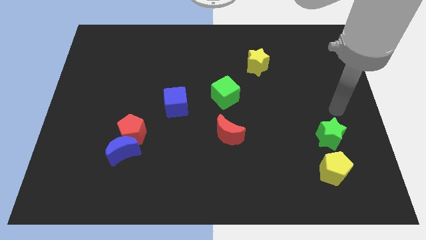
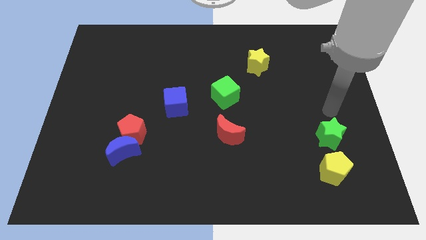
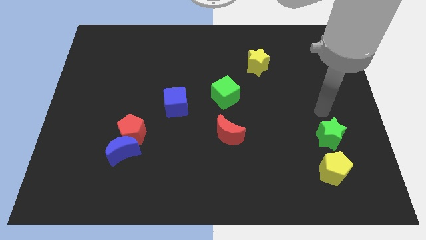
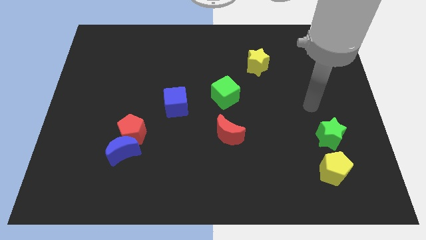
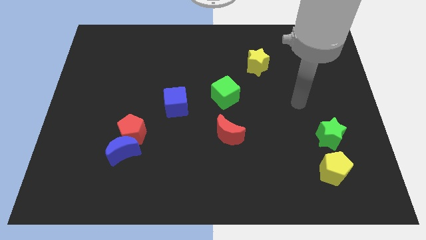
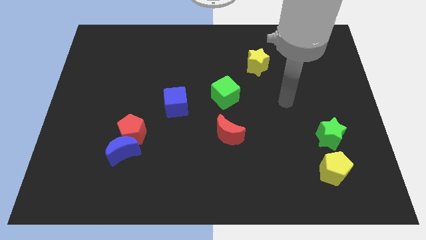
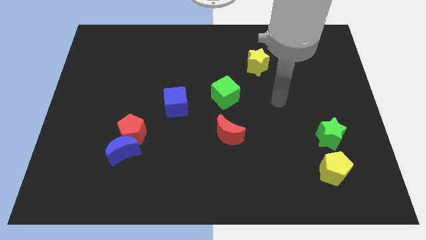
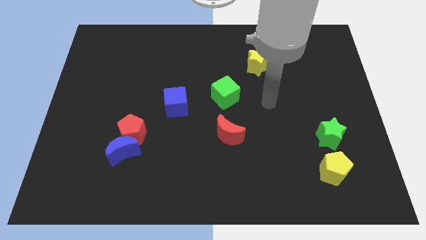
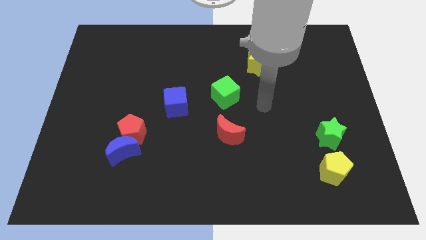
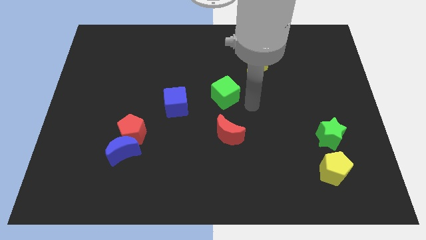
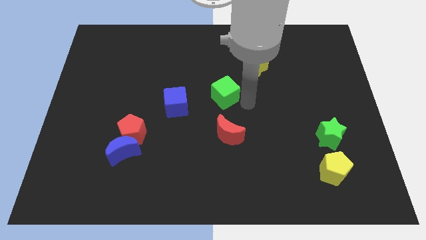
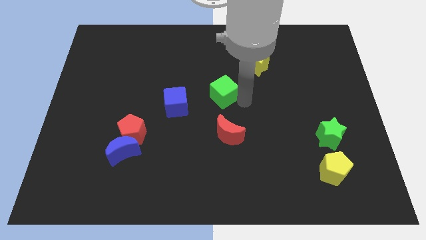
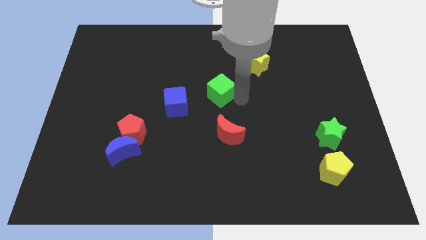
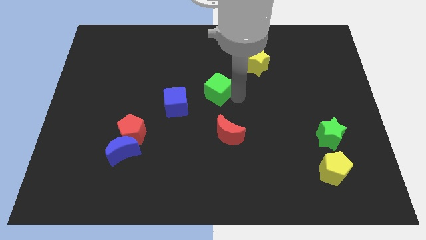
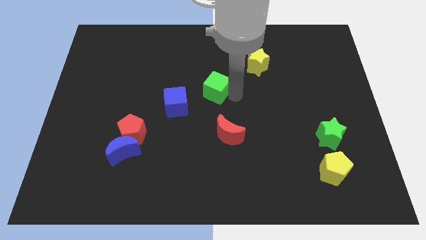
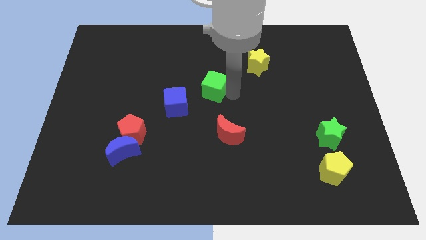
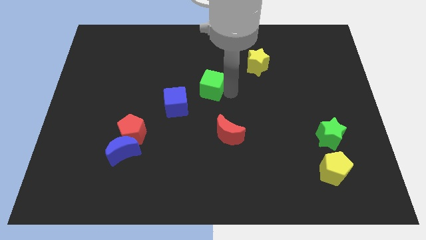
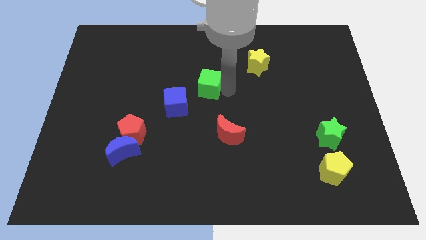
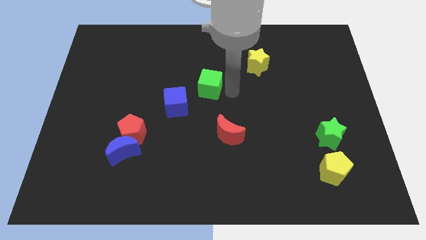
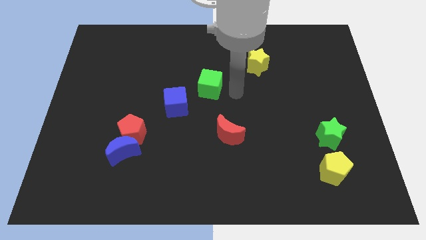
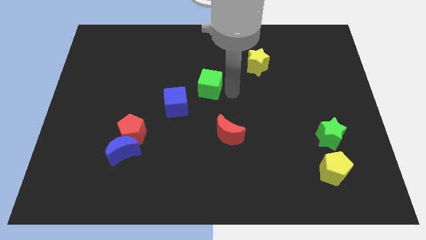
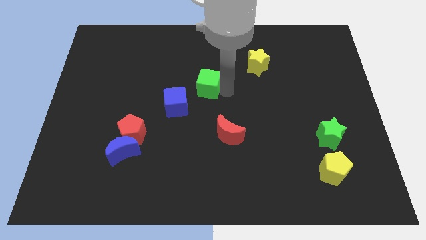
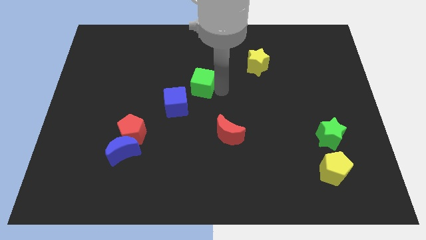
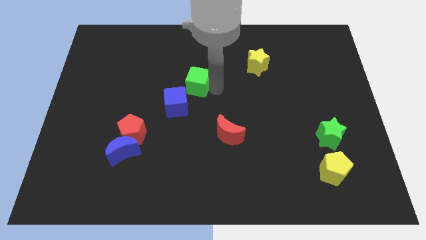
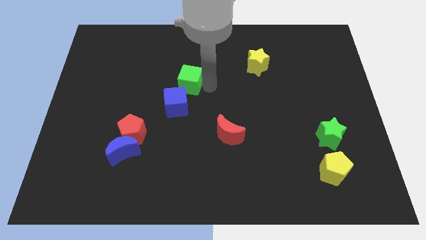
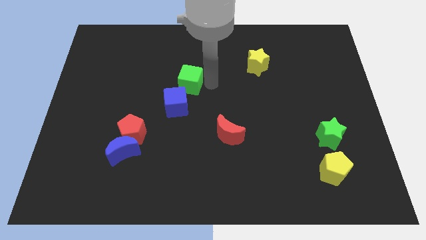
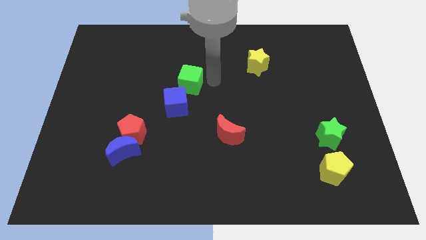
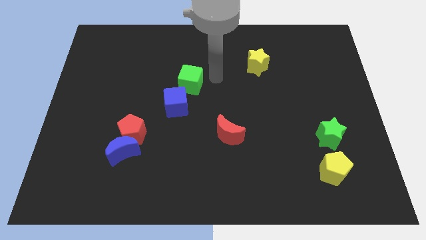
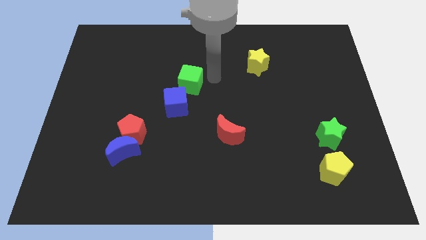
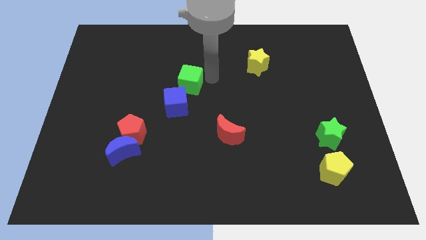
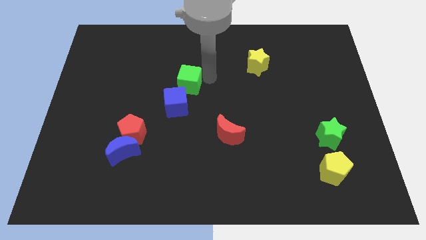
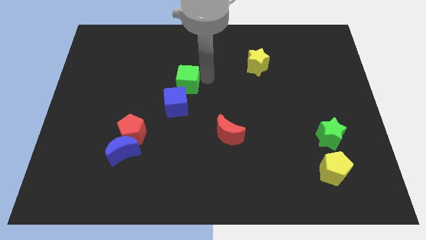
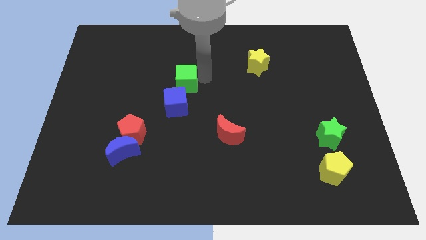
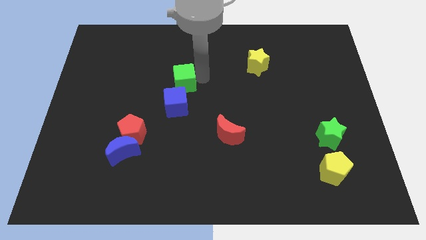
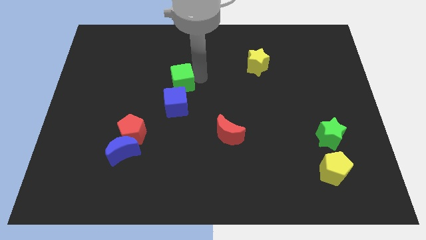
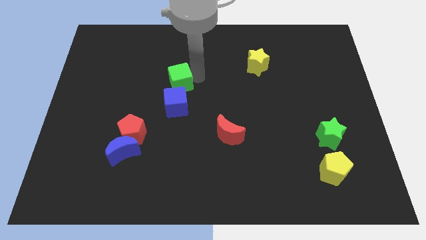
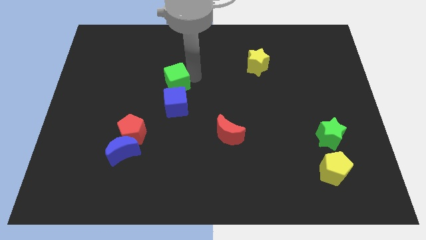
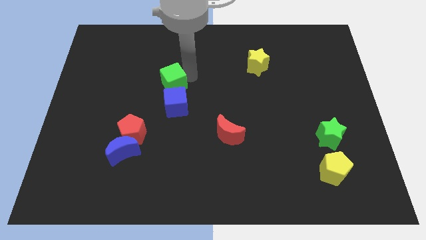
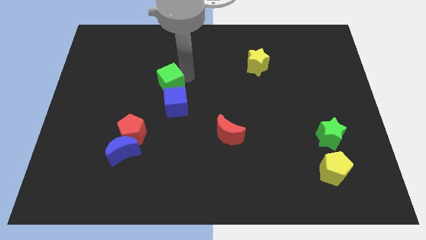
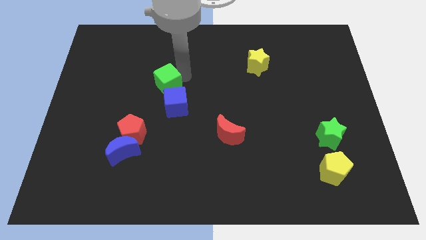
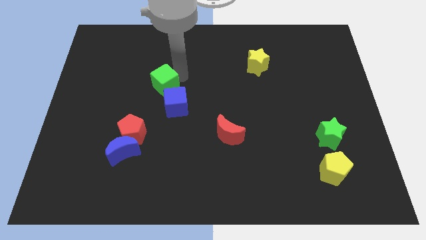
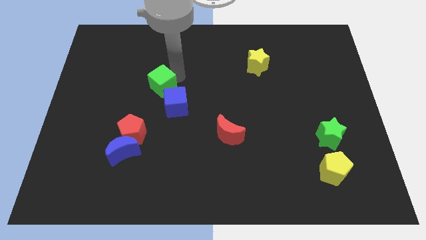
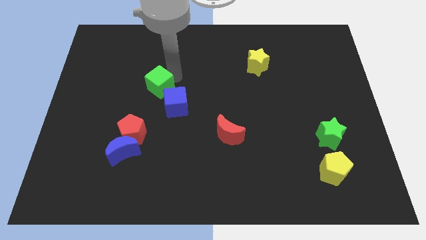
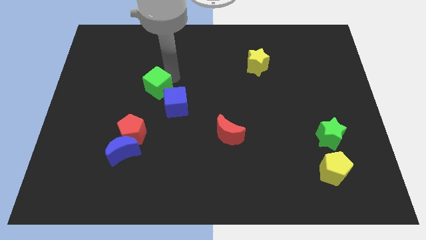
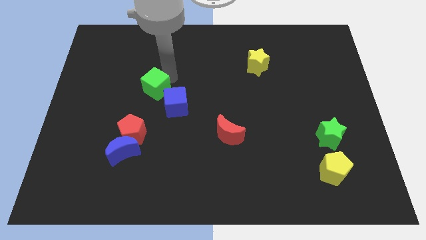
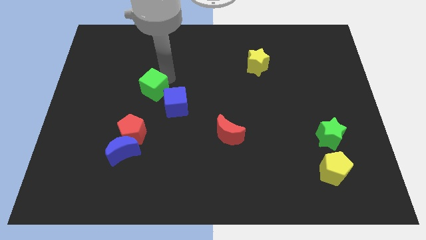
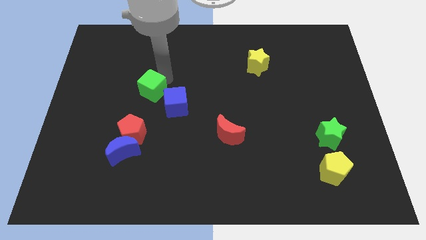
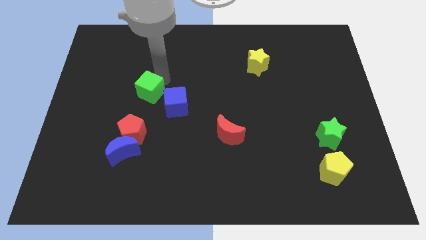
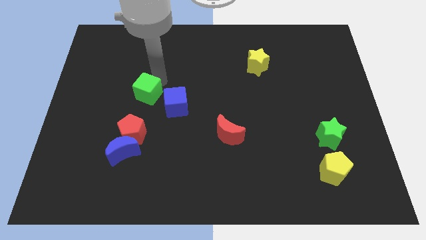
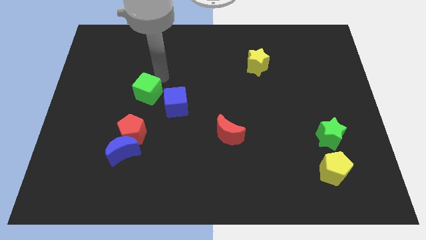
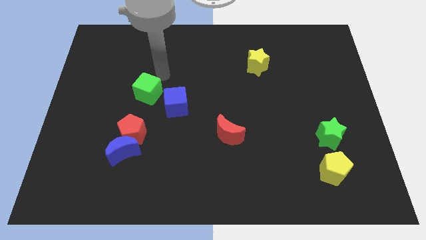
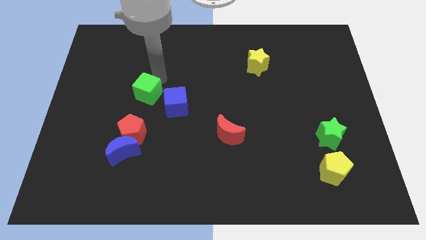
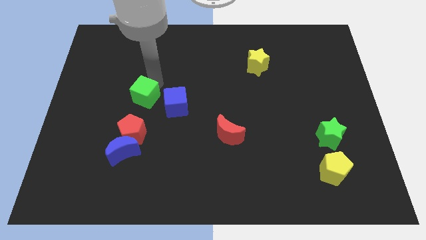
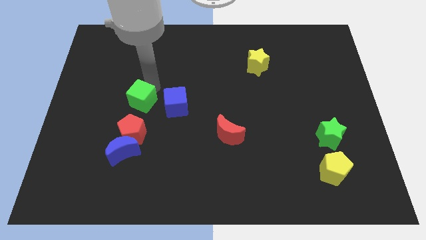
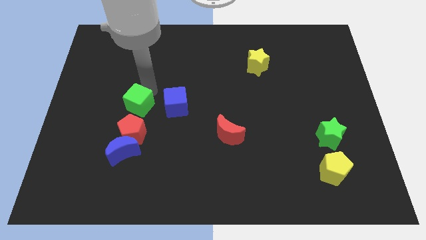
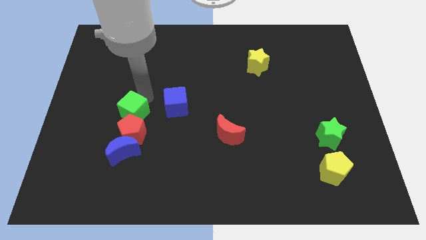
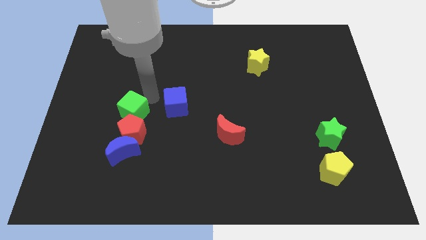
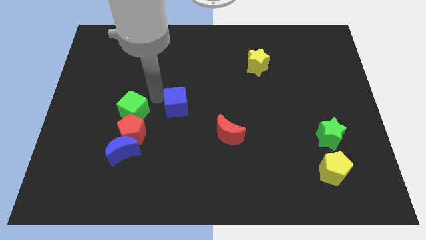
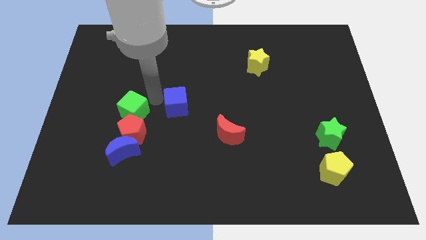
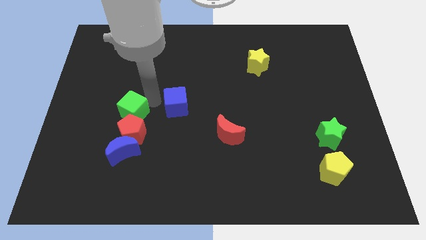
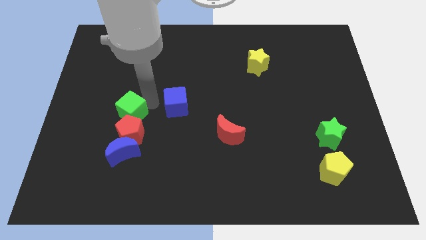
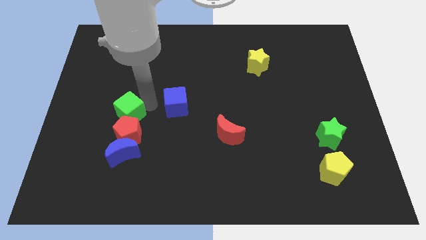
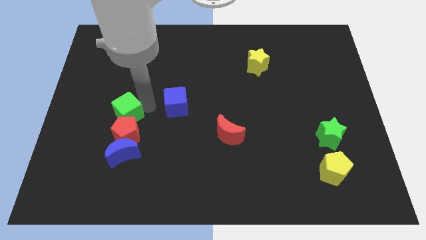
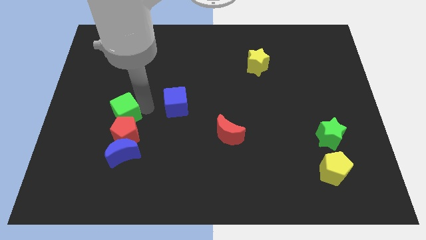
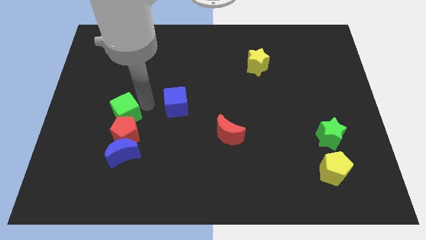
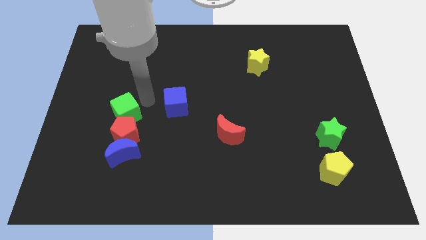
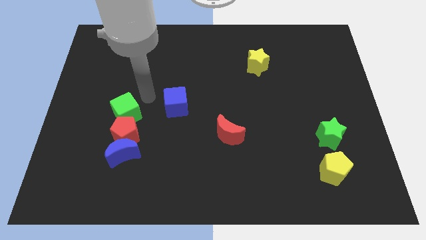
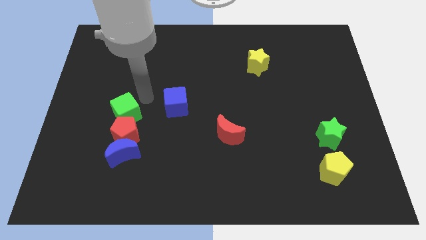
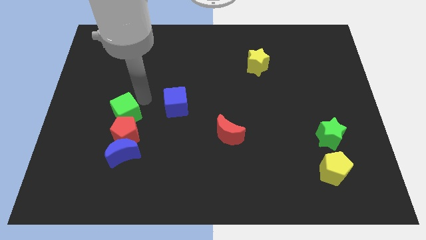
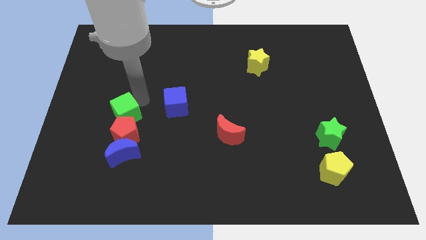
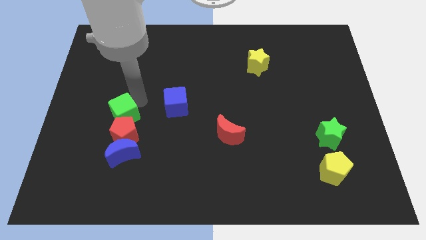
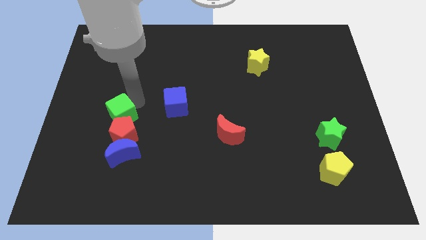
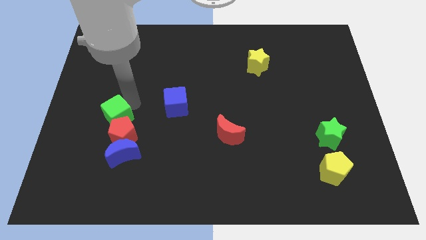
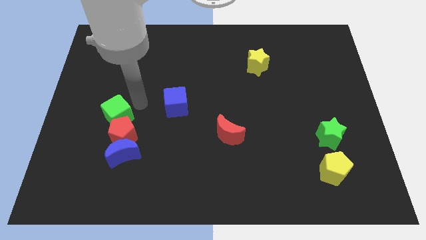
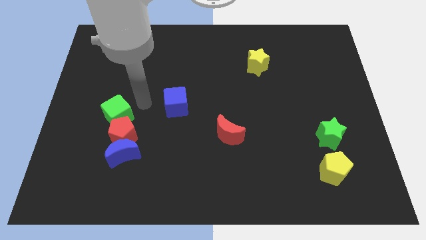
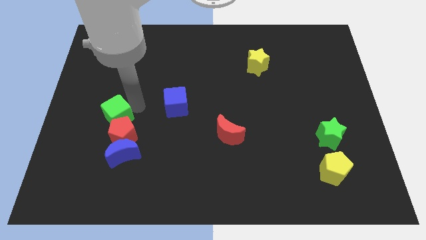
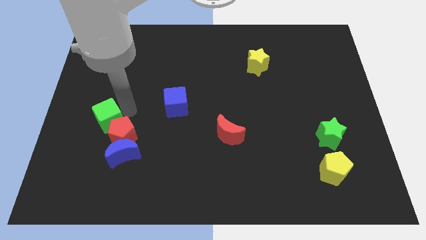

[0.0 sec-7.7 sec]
push the green cube to the left side of the red pentagon
